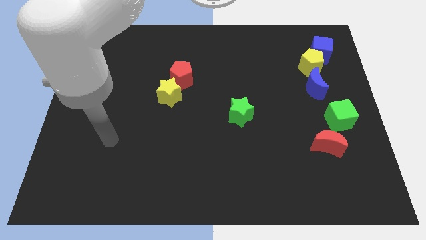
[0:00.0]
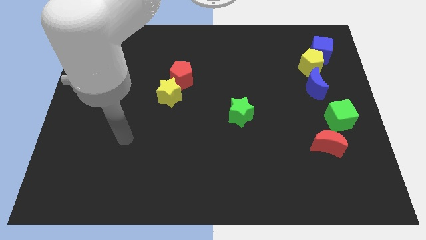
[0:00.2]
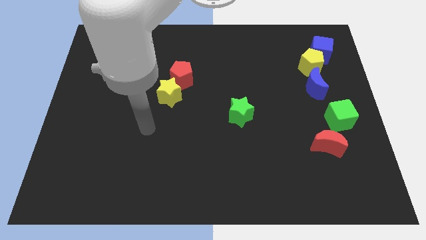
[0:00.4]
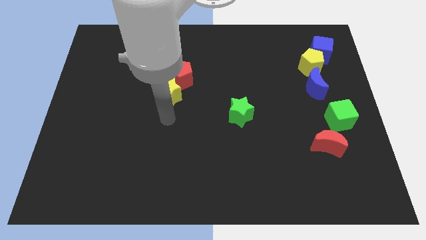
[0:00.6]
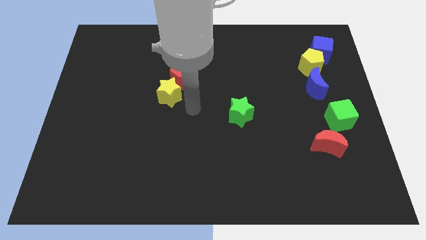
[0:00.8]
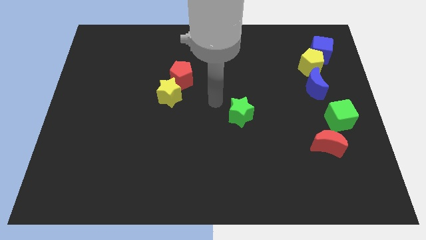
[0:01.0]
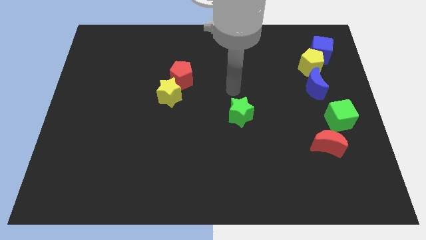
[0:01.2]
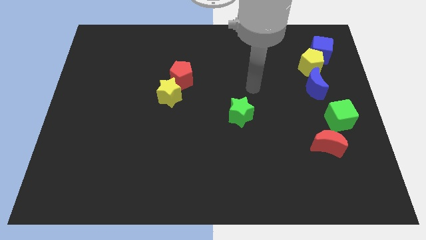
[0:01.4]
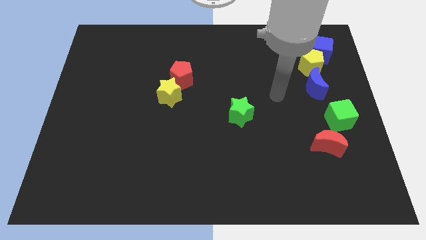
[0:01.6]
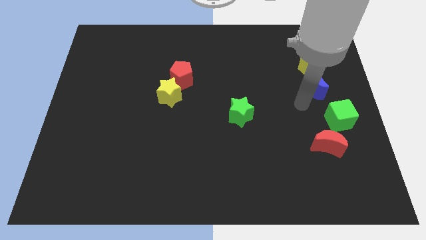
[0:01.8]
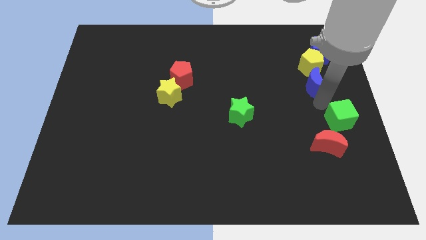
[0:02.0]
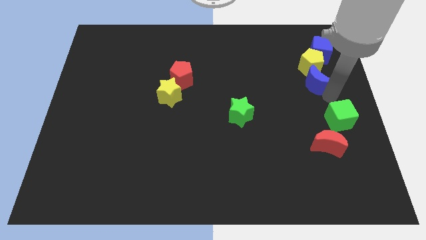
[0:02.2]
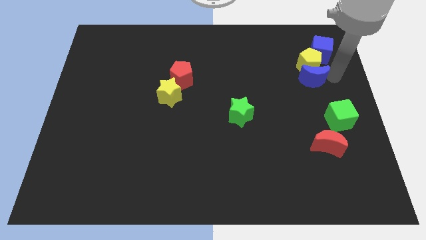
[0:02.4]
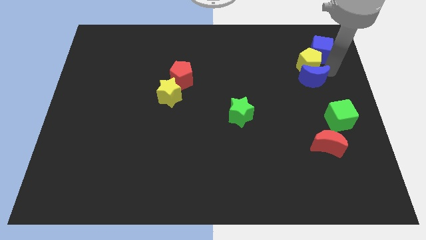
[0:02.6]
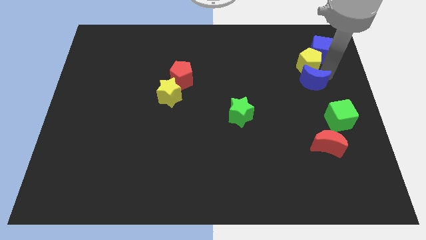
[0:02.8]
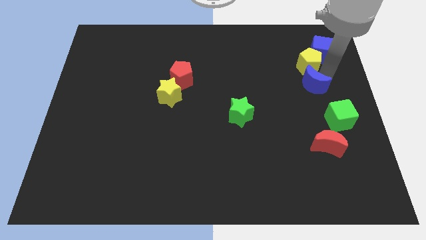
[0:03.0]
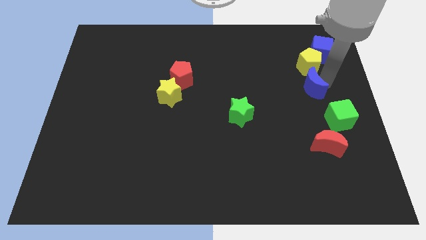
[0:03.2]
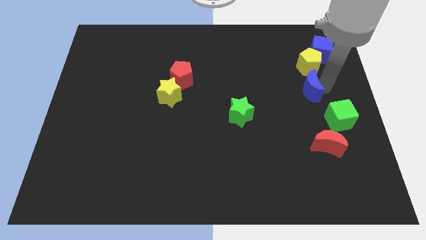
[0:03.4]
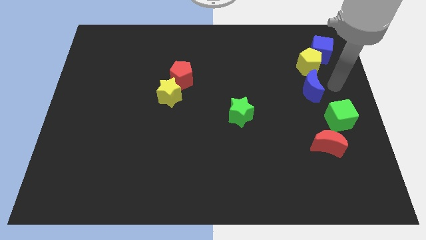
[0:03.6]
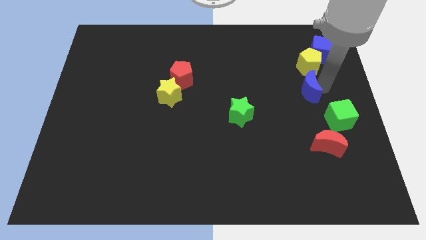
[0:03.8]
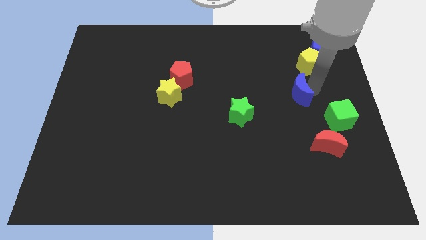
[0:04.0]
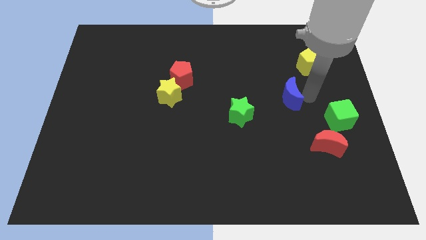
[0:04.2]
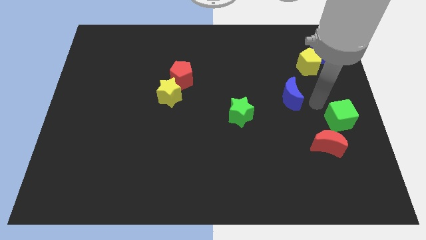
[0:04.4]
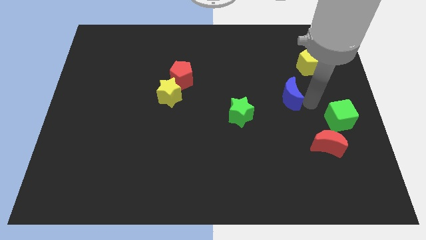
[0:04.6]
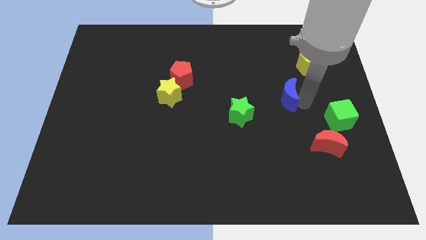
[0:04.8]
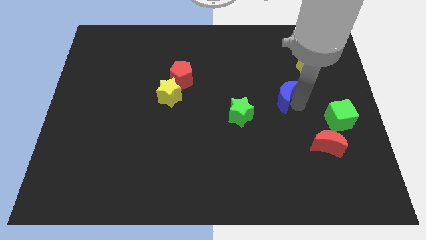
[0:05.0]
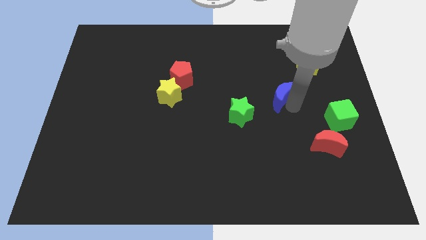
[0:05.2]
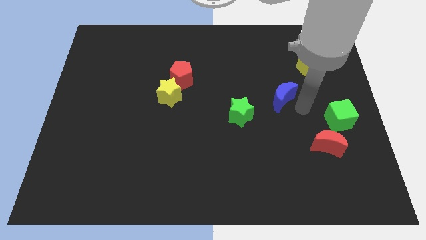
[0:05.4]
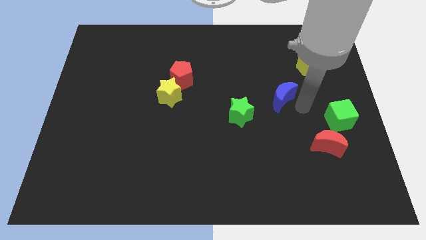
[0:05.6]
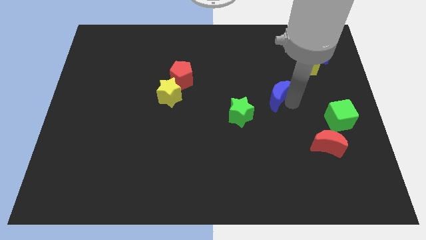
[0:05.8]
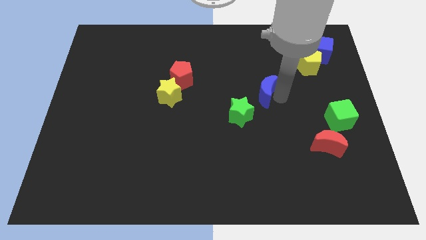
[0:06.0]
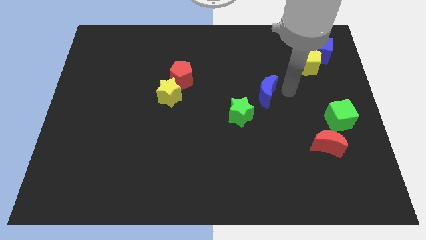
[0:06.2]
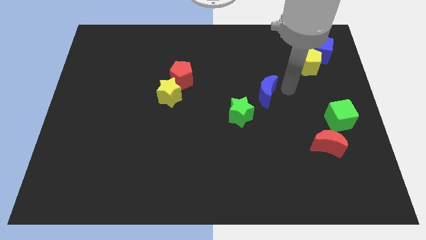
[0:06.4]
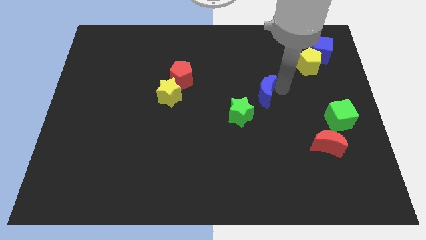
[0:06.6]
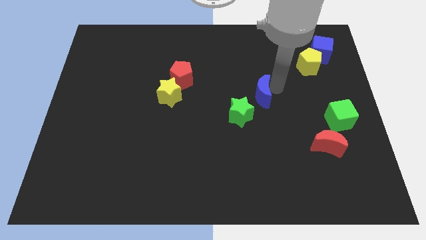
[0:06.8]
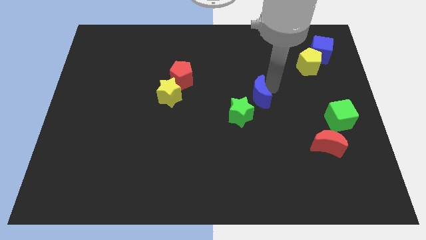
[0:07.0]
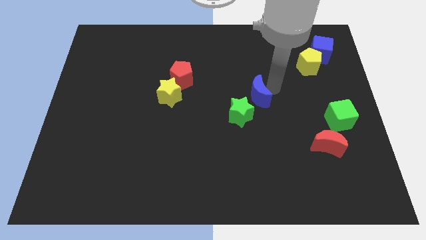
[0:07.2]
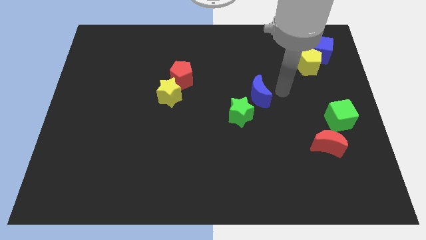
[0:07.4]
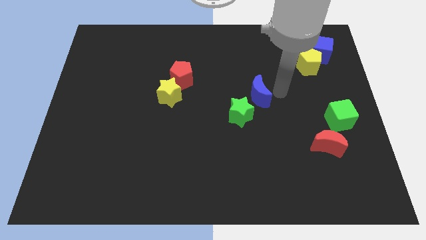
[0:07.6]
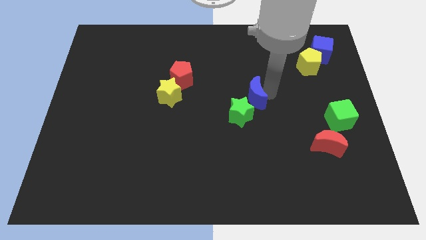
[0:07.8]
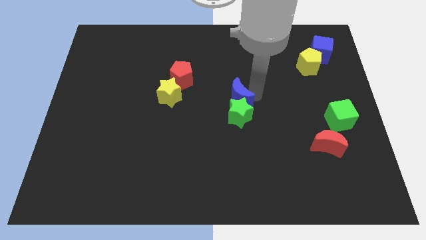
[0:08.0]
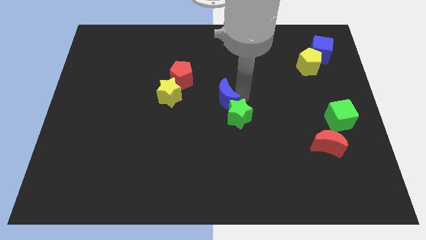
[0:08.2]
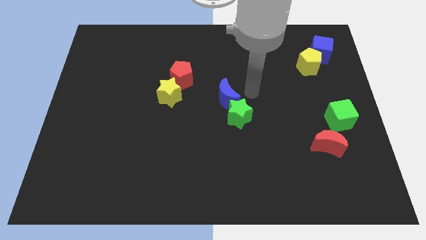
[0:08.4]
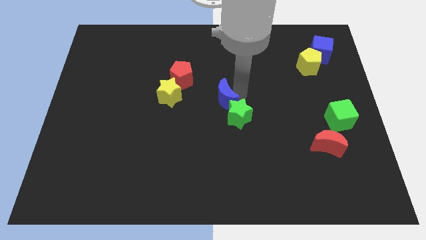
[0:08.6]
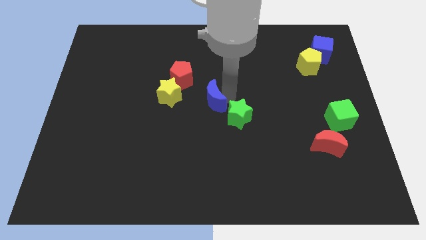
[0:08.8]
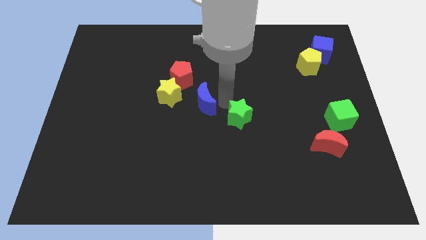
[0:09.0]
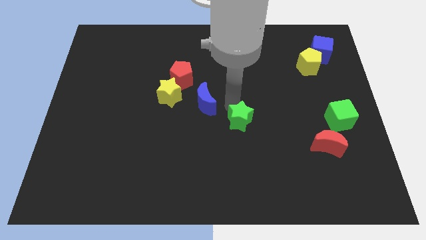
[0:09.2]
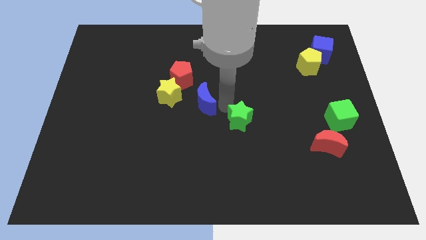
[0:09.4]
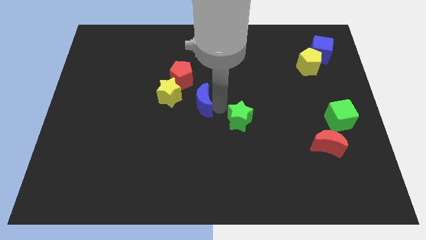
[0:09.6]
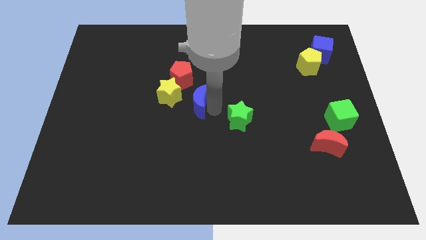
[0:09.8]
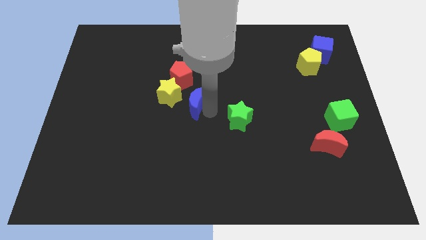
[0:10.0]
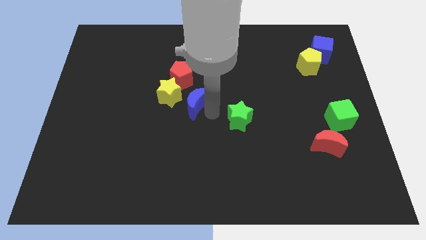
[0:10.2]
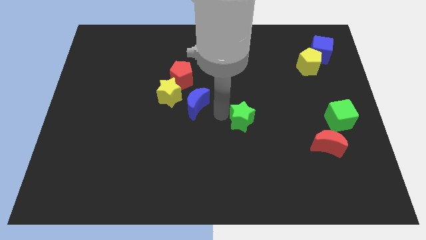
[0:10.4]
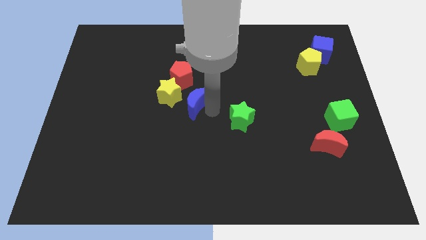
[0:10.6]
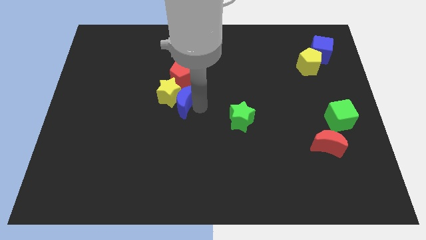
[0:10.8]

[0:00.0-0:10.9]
put the blue moon next to the yellow star

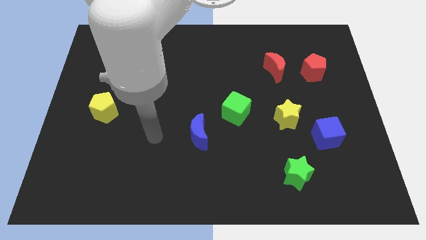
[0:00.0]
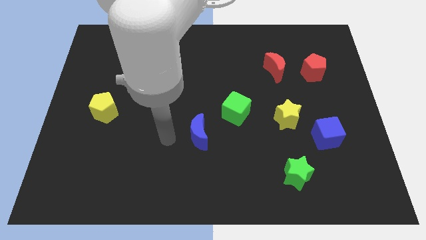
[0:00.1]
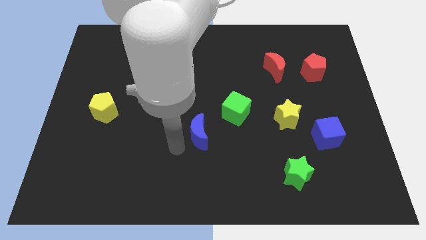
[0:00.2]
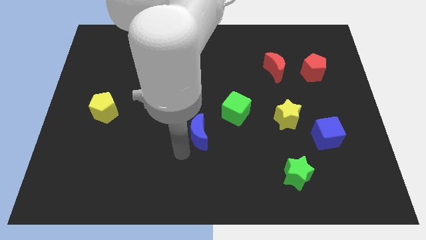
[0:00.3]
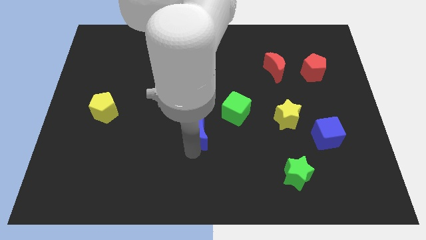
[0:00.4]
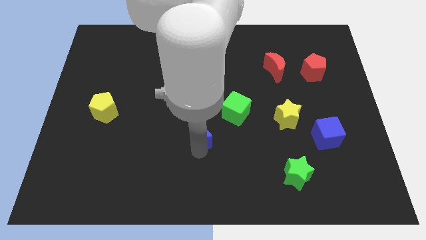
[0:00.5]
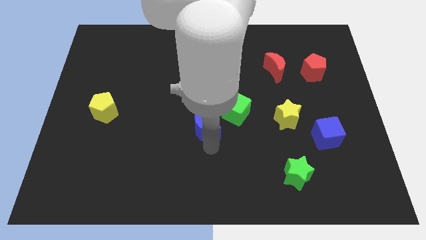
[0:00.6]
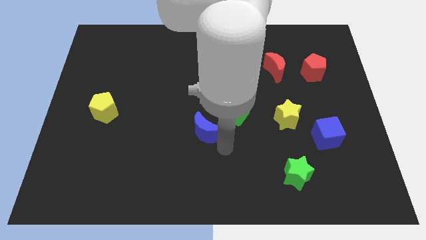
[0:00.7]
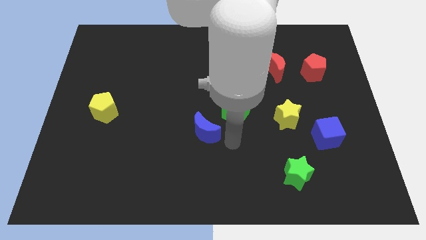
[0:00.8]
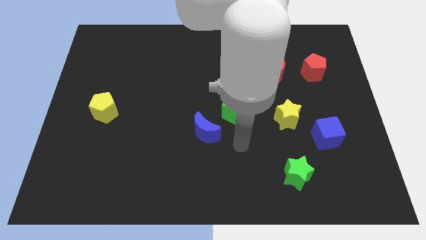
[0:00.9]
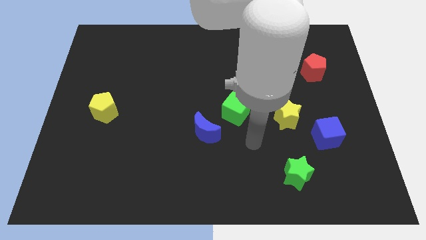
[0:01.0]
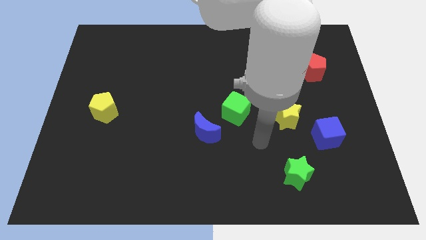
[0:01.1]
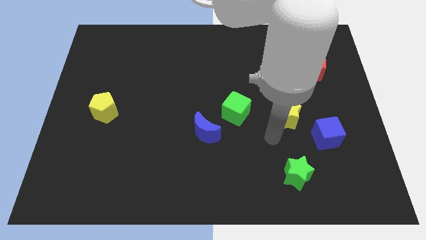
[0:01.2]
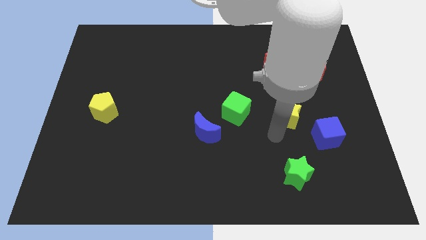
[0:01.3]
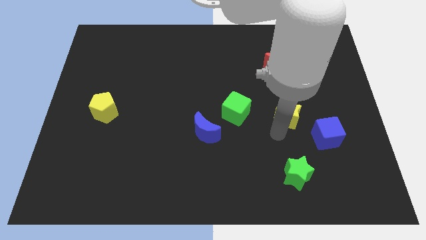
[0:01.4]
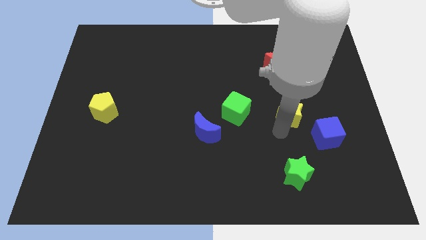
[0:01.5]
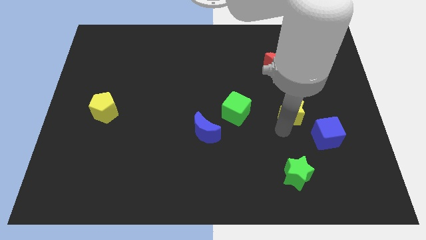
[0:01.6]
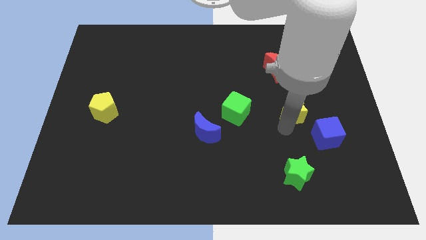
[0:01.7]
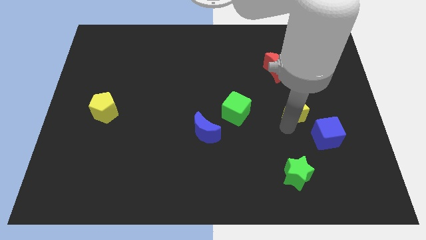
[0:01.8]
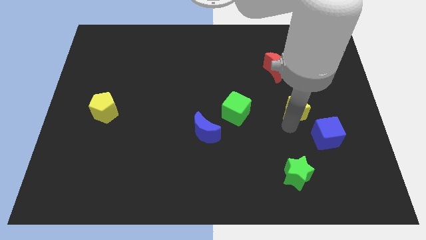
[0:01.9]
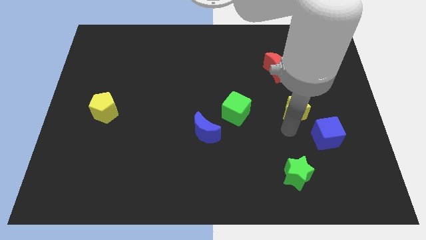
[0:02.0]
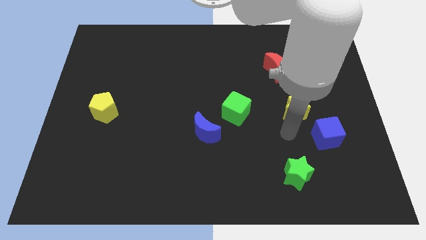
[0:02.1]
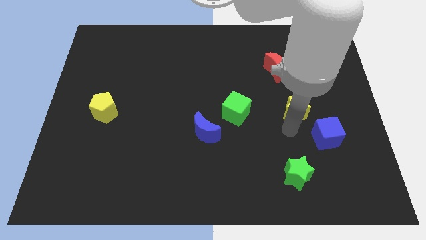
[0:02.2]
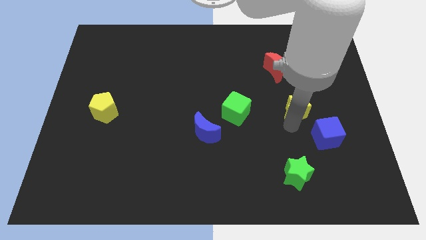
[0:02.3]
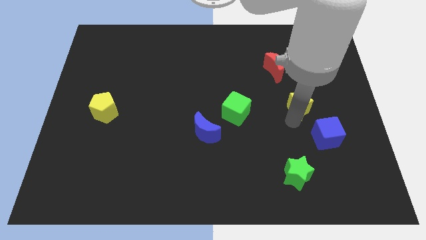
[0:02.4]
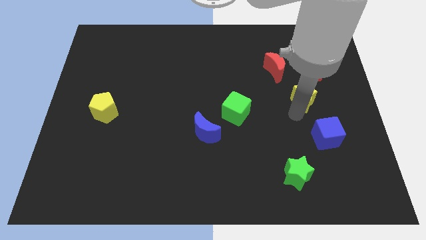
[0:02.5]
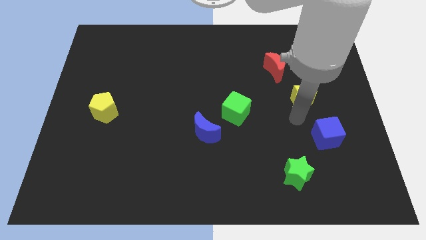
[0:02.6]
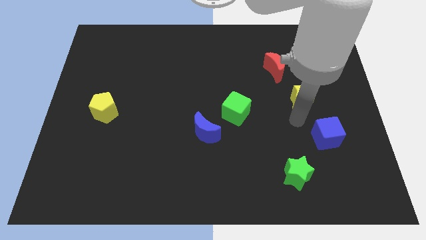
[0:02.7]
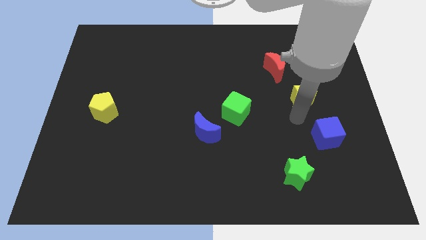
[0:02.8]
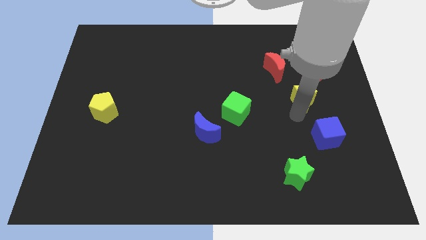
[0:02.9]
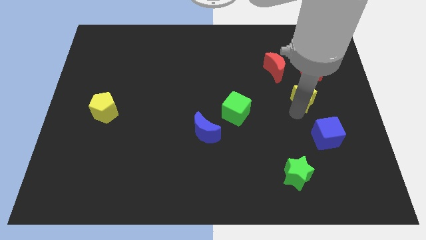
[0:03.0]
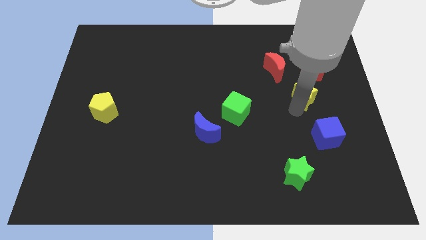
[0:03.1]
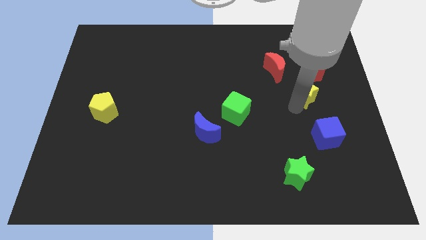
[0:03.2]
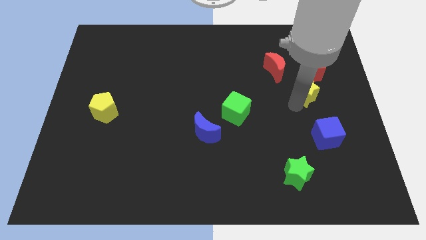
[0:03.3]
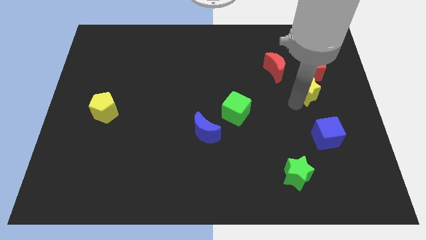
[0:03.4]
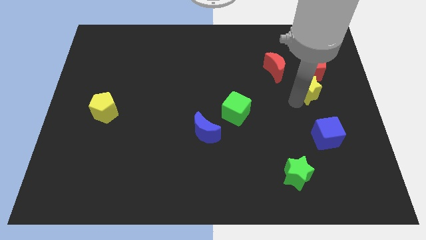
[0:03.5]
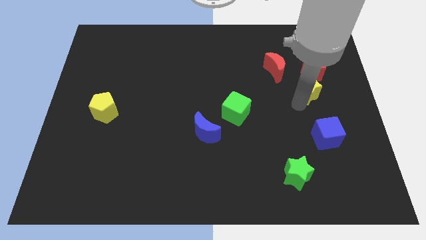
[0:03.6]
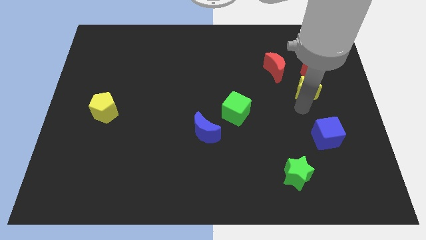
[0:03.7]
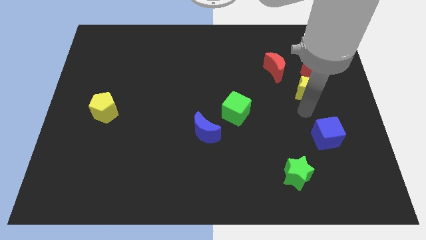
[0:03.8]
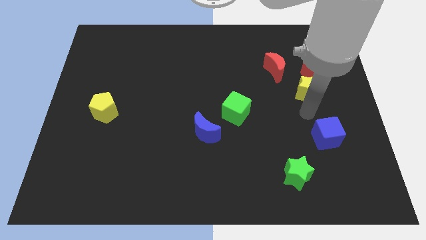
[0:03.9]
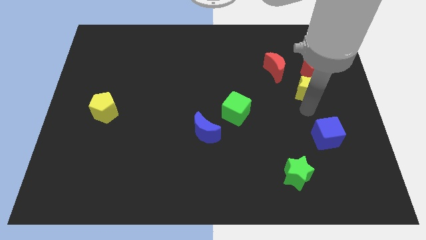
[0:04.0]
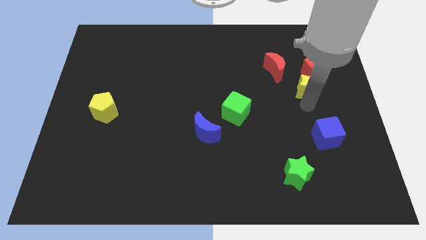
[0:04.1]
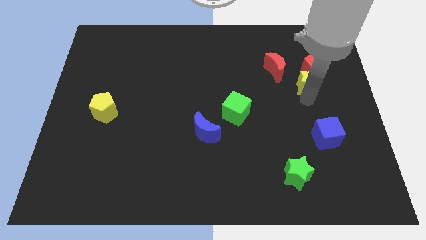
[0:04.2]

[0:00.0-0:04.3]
slide the yellow star towards the red pentagon
